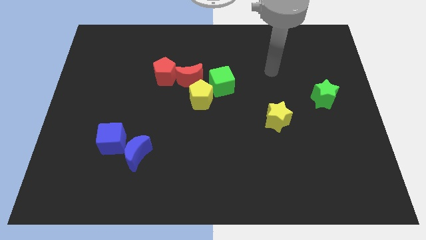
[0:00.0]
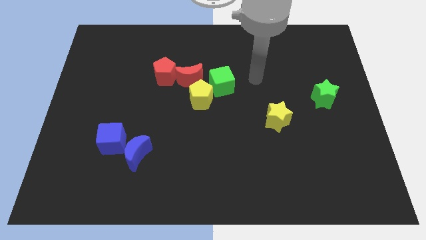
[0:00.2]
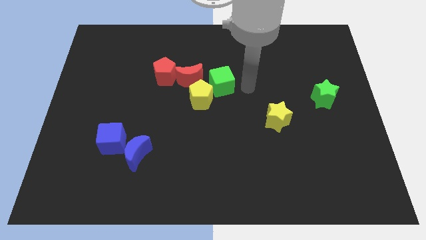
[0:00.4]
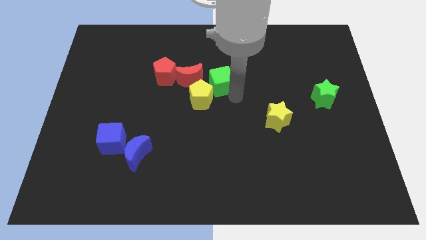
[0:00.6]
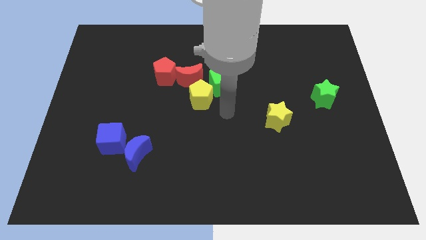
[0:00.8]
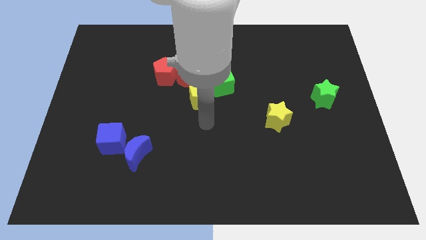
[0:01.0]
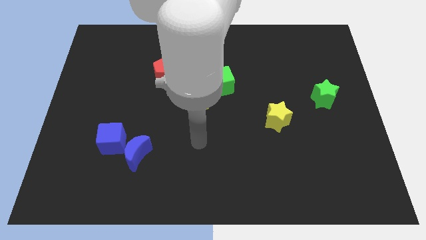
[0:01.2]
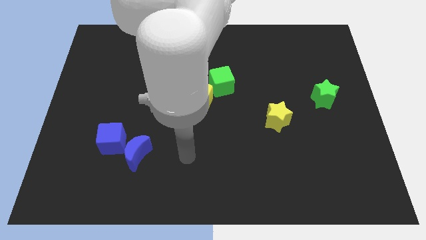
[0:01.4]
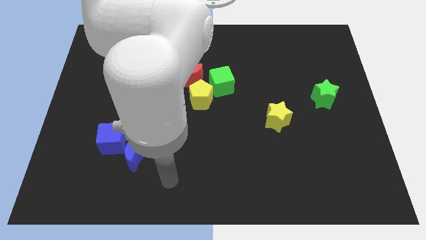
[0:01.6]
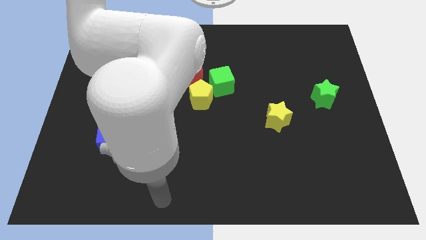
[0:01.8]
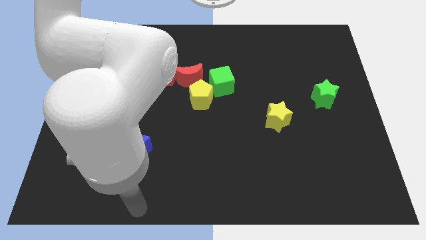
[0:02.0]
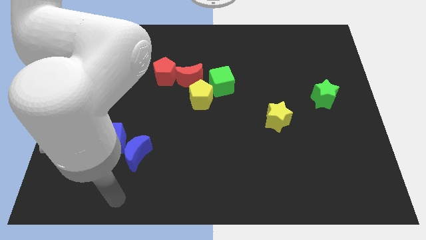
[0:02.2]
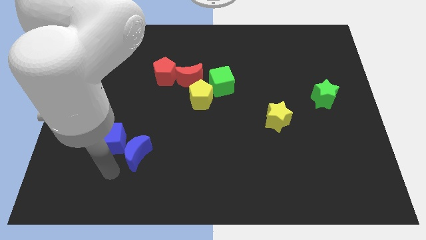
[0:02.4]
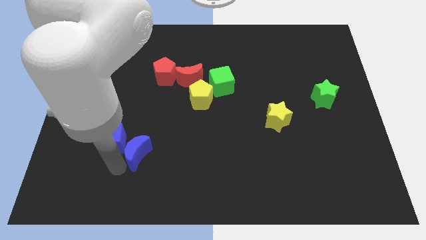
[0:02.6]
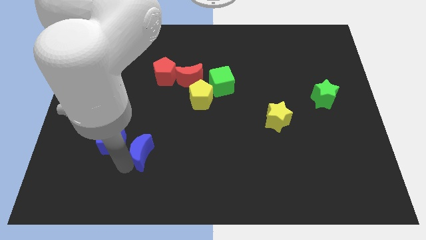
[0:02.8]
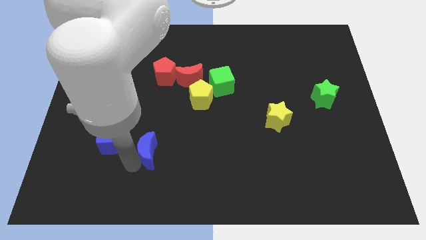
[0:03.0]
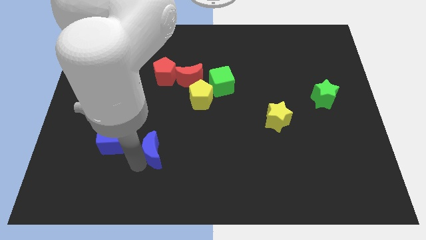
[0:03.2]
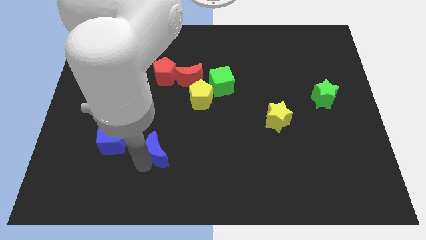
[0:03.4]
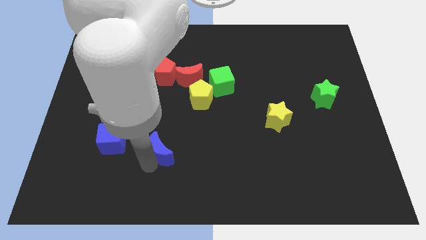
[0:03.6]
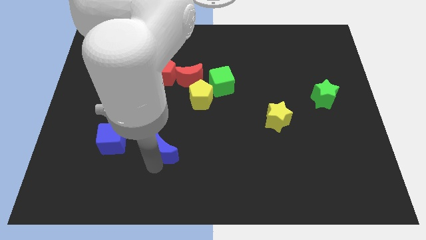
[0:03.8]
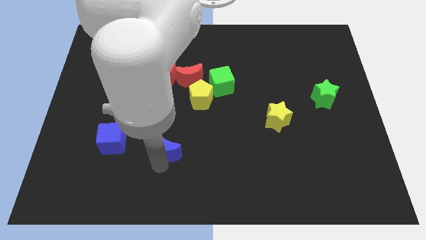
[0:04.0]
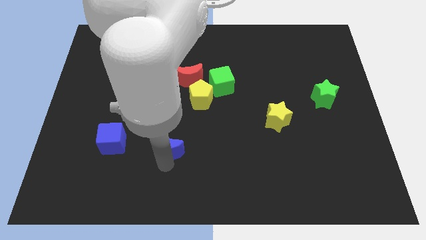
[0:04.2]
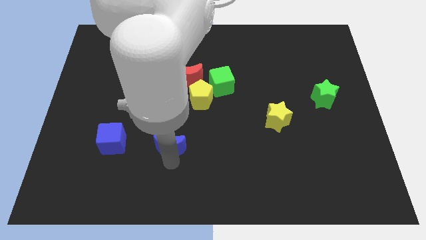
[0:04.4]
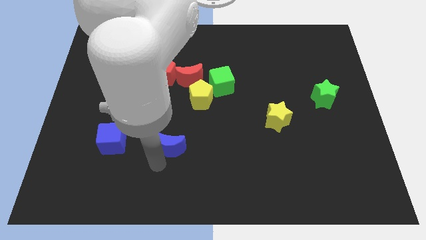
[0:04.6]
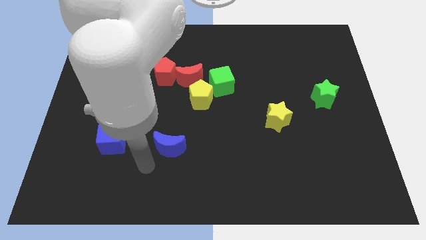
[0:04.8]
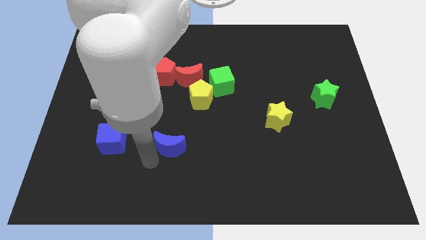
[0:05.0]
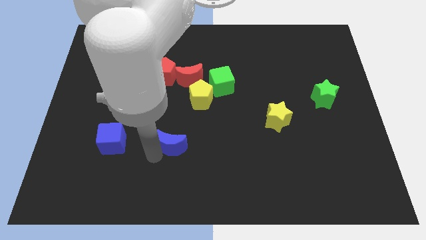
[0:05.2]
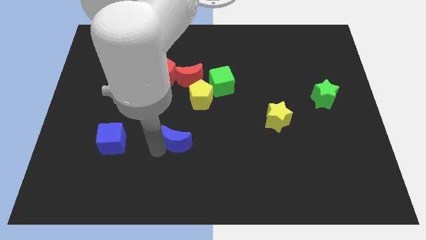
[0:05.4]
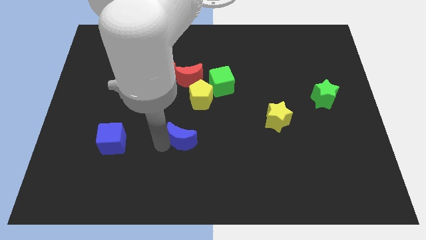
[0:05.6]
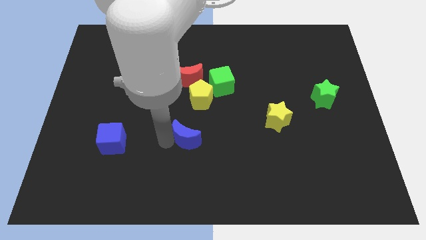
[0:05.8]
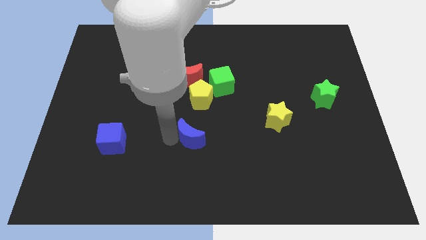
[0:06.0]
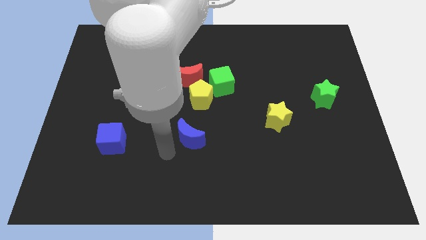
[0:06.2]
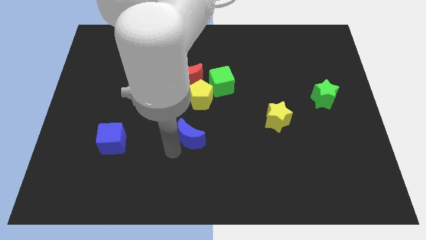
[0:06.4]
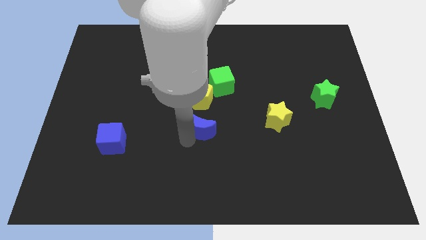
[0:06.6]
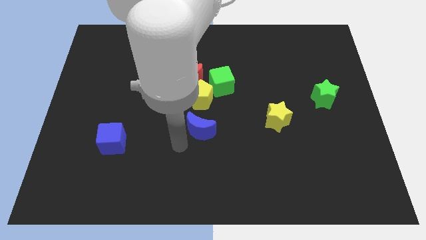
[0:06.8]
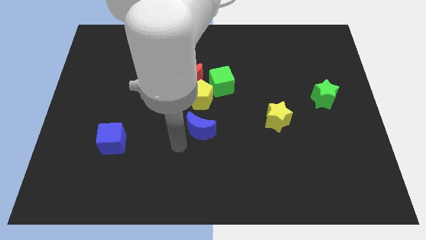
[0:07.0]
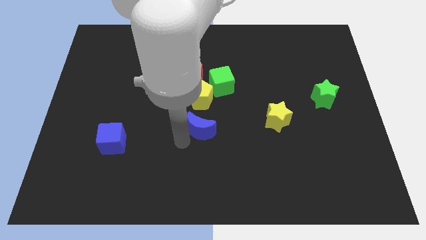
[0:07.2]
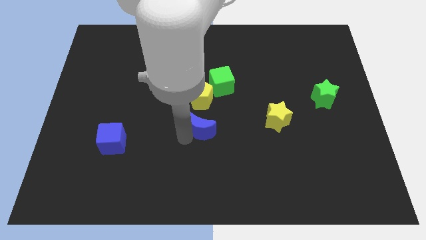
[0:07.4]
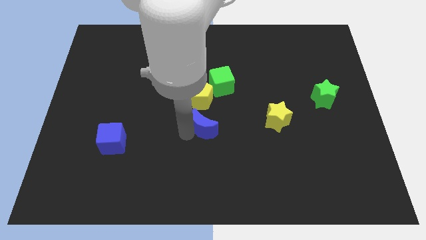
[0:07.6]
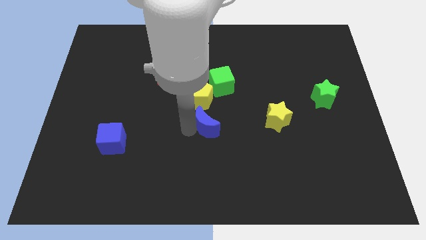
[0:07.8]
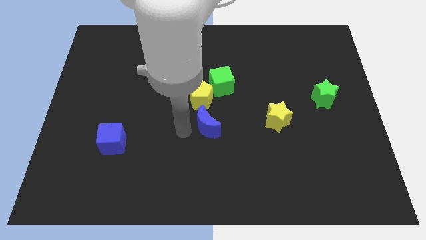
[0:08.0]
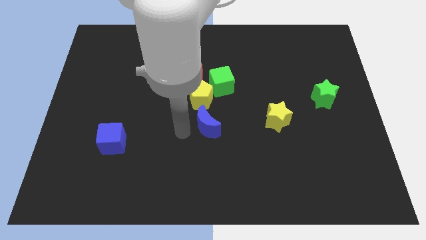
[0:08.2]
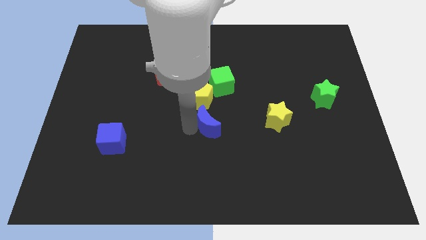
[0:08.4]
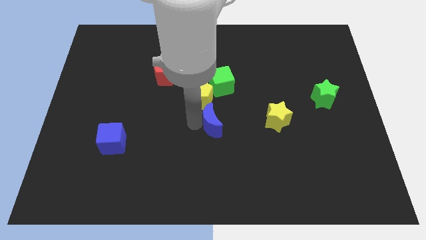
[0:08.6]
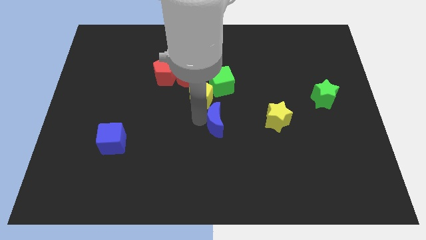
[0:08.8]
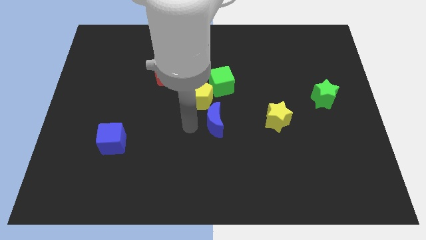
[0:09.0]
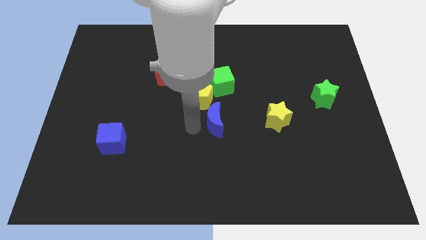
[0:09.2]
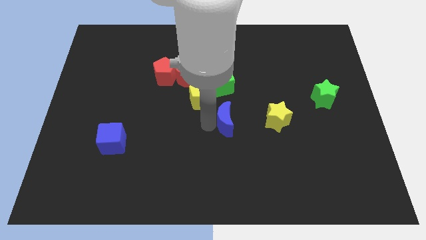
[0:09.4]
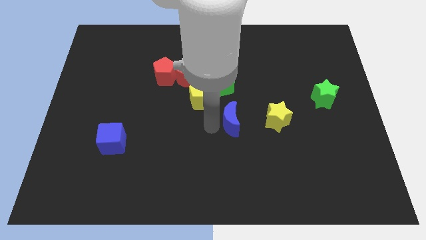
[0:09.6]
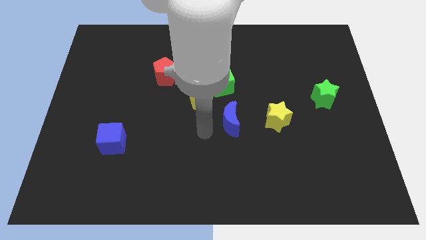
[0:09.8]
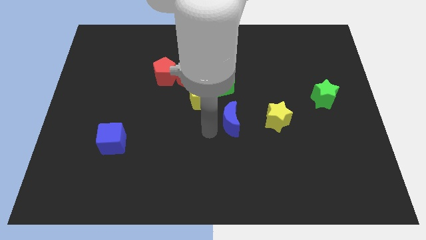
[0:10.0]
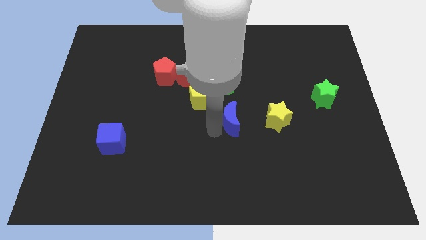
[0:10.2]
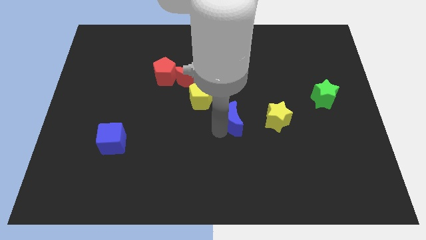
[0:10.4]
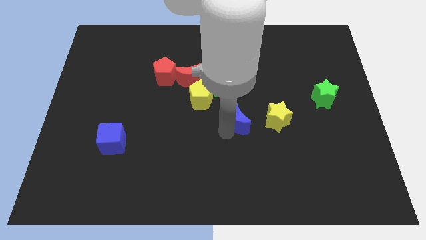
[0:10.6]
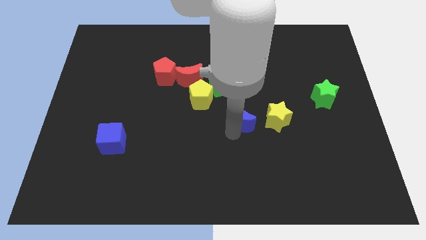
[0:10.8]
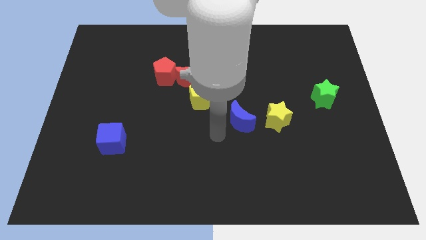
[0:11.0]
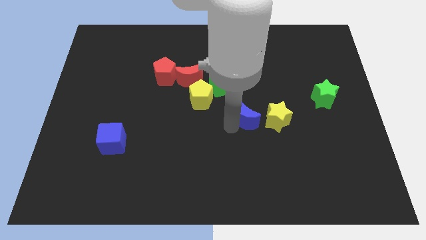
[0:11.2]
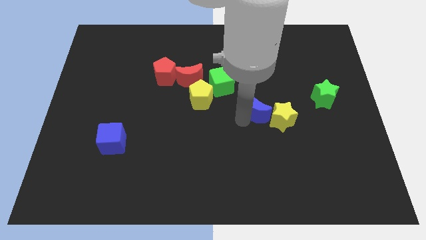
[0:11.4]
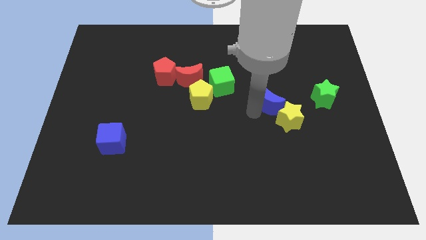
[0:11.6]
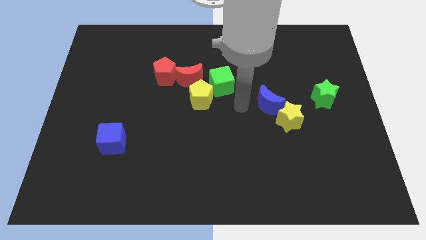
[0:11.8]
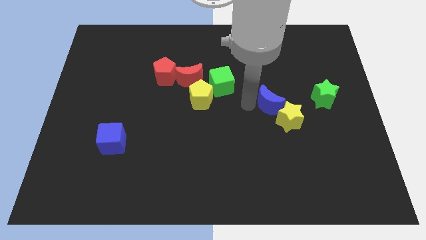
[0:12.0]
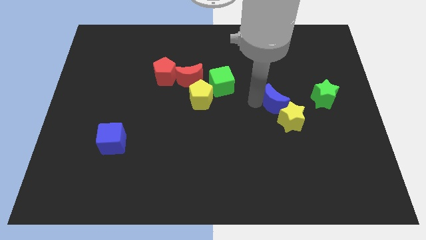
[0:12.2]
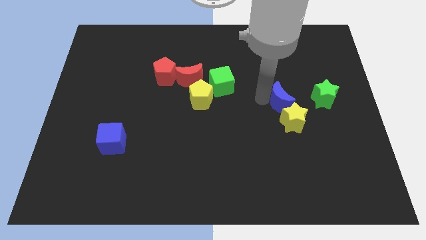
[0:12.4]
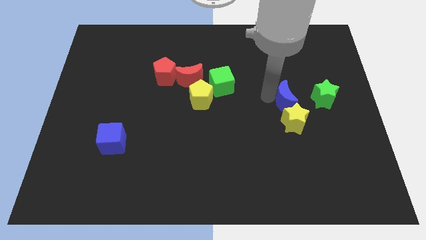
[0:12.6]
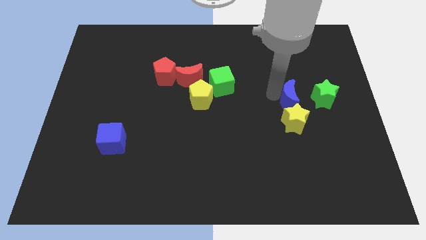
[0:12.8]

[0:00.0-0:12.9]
push the blue moon diagonally up and to the right of the yellow star
